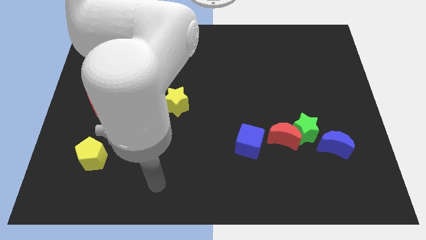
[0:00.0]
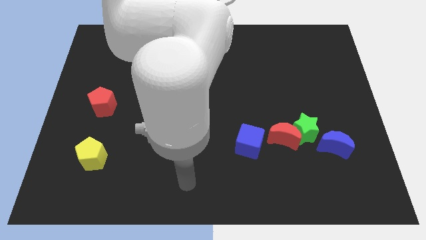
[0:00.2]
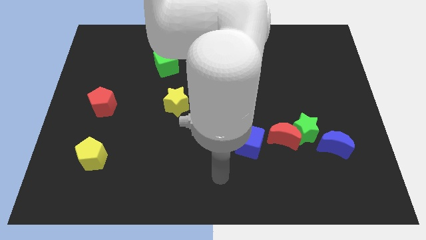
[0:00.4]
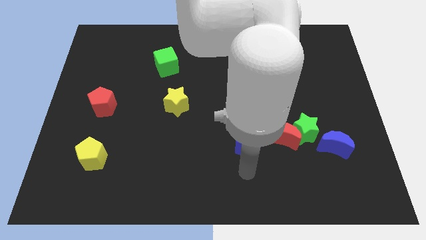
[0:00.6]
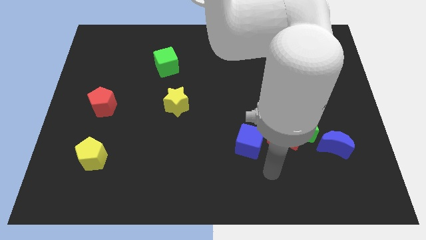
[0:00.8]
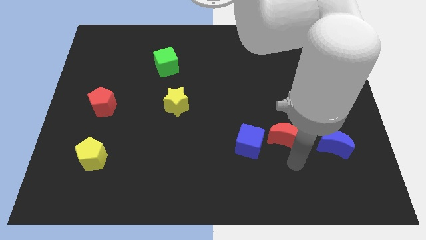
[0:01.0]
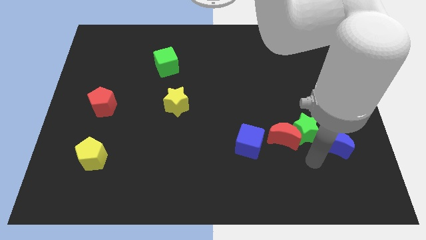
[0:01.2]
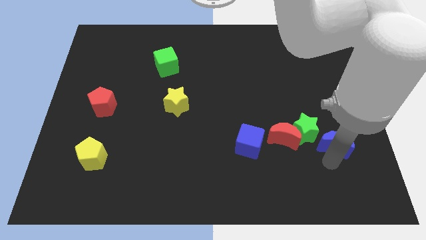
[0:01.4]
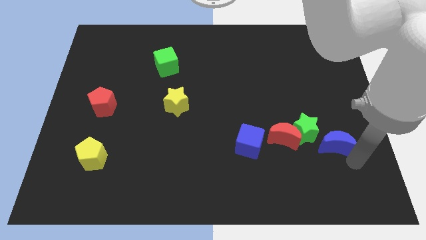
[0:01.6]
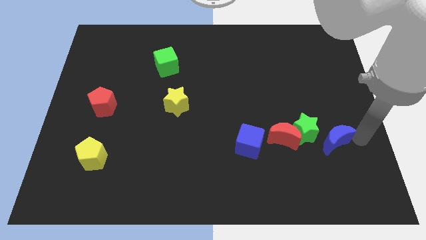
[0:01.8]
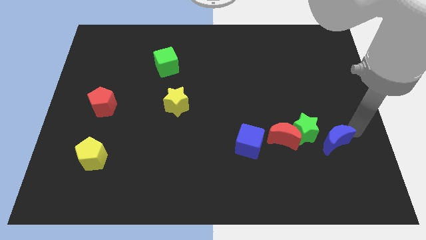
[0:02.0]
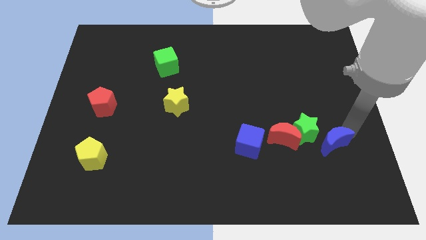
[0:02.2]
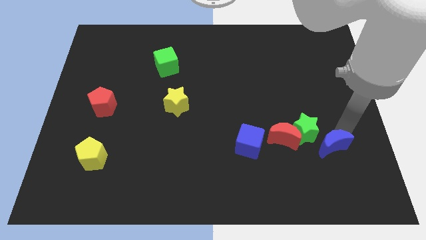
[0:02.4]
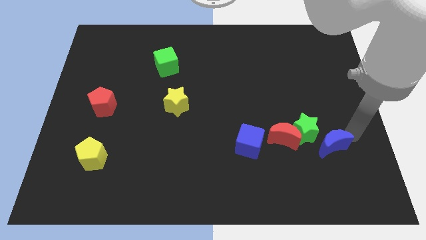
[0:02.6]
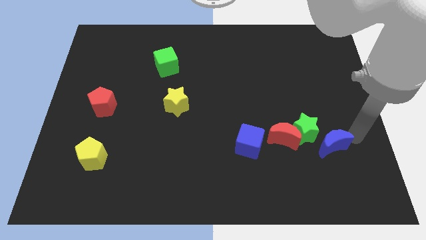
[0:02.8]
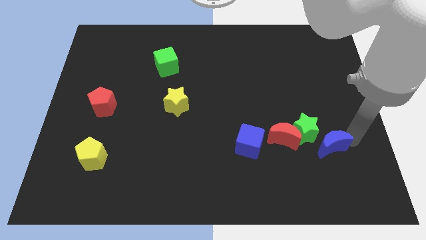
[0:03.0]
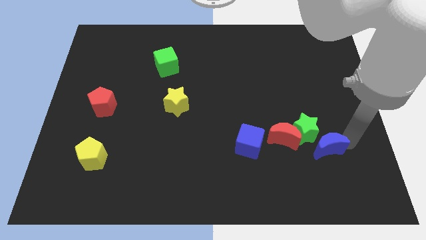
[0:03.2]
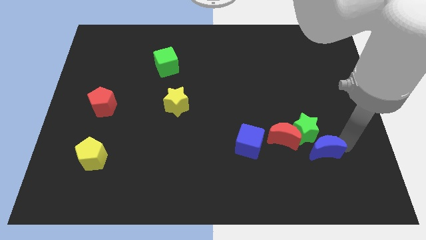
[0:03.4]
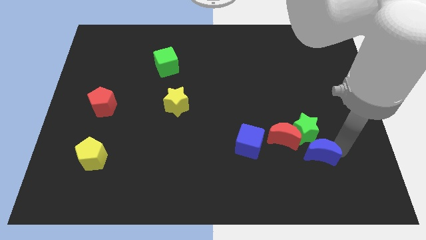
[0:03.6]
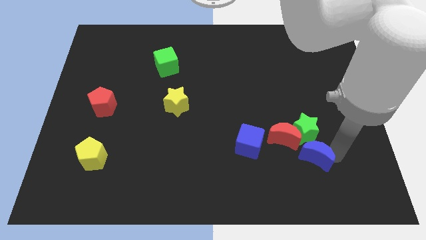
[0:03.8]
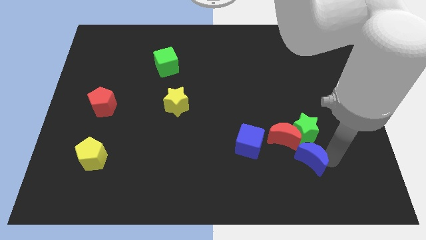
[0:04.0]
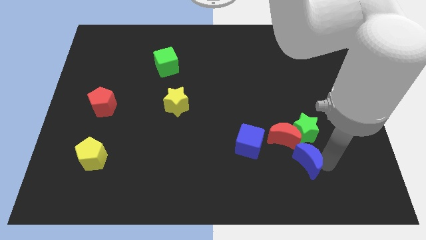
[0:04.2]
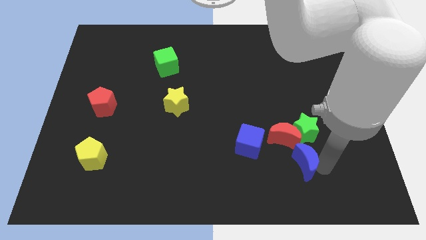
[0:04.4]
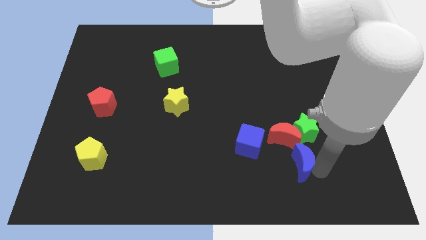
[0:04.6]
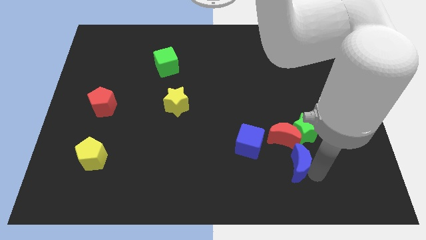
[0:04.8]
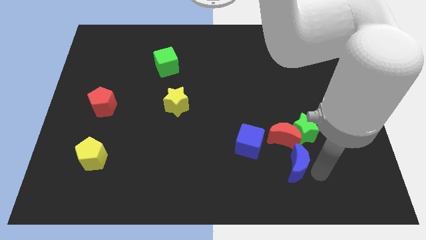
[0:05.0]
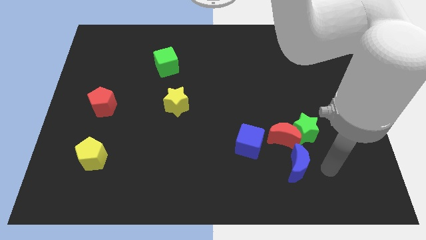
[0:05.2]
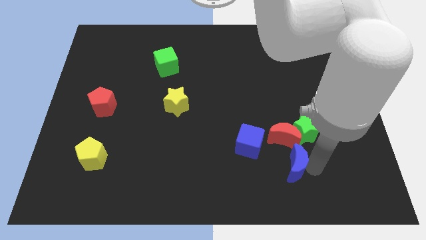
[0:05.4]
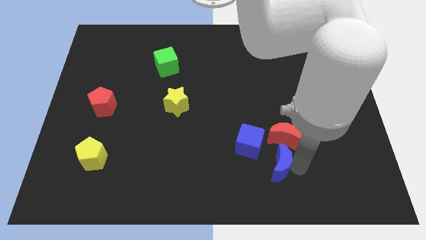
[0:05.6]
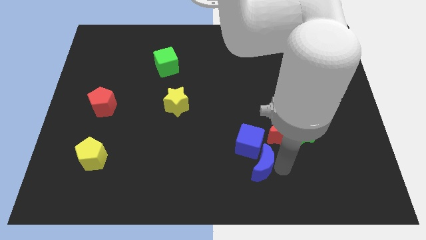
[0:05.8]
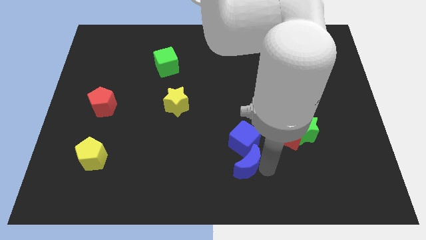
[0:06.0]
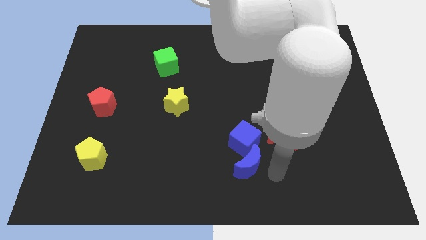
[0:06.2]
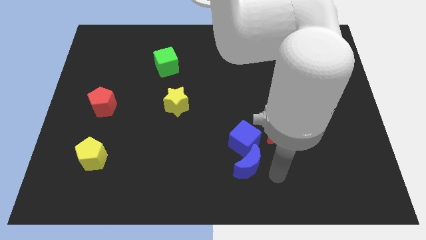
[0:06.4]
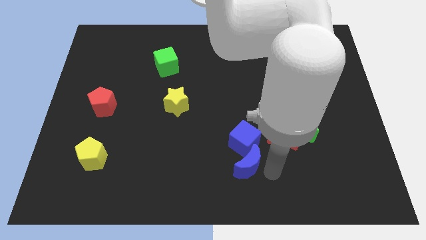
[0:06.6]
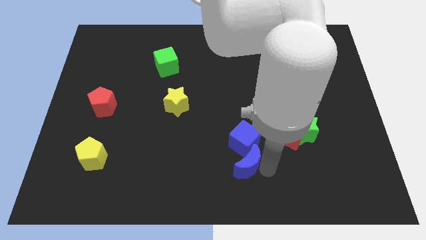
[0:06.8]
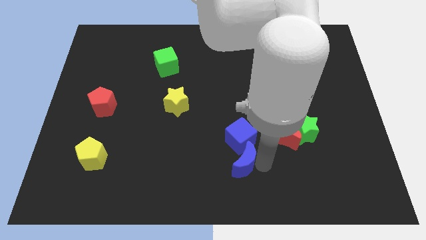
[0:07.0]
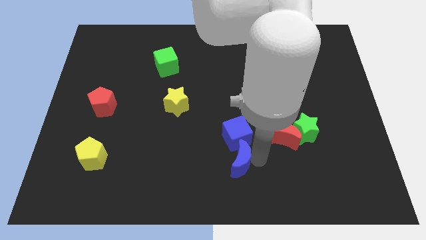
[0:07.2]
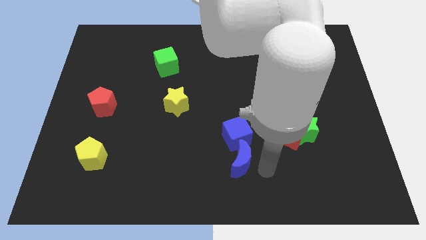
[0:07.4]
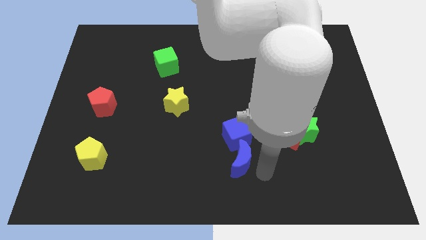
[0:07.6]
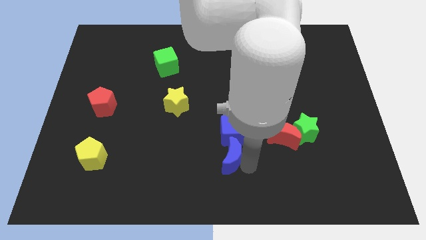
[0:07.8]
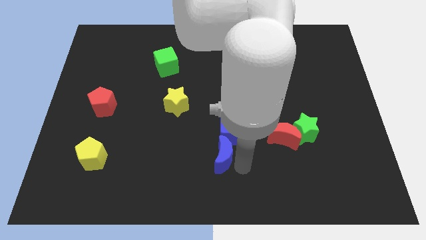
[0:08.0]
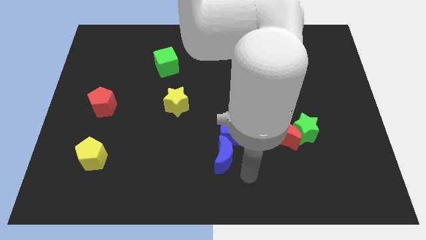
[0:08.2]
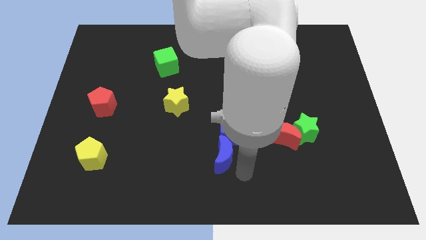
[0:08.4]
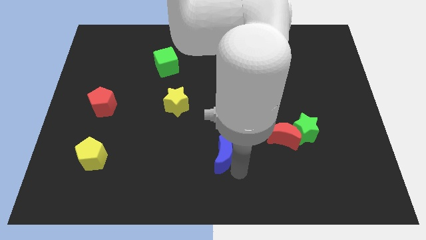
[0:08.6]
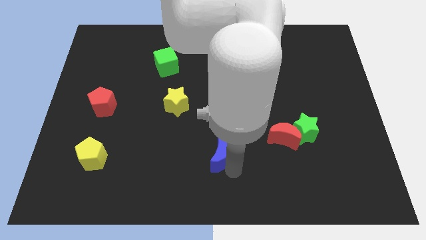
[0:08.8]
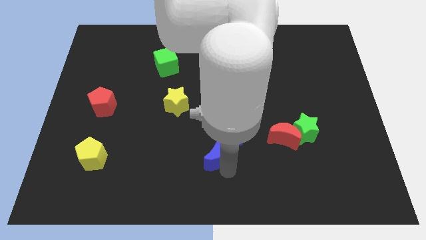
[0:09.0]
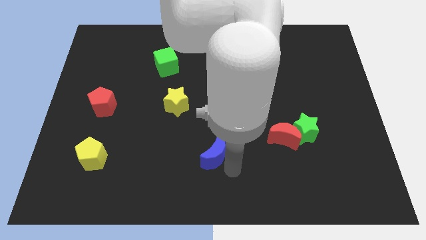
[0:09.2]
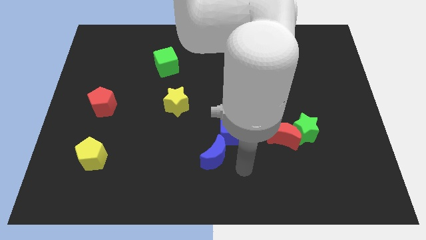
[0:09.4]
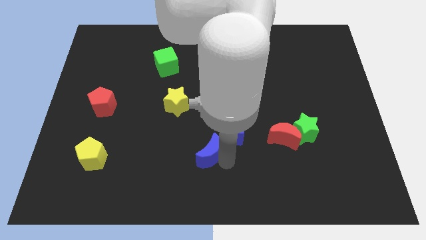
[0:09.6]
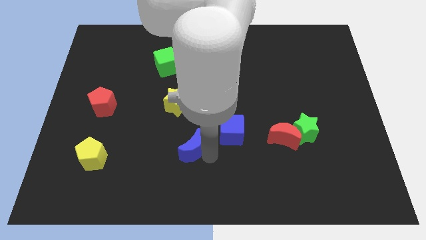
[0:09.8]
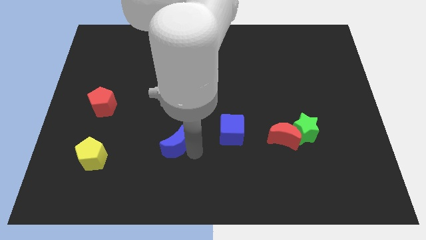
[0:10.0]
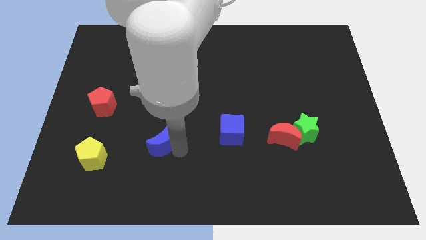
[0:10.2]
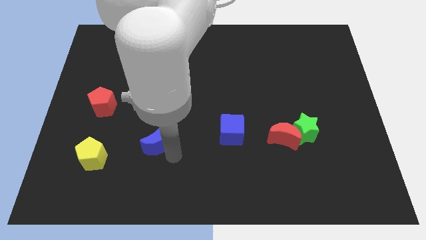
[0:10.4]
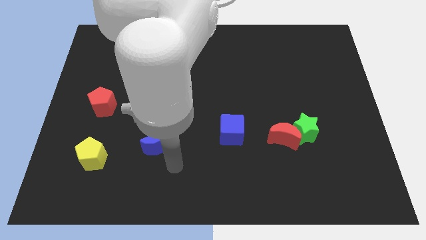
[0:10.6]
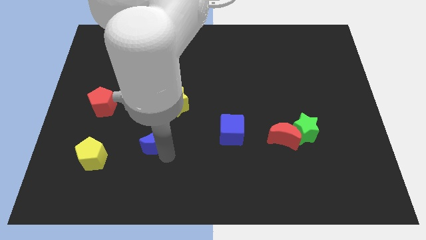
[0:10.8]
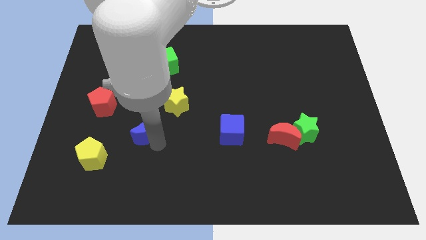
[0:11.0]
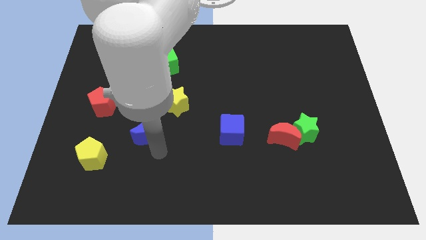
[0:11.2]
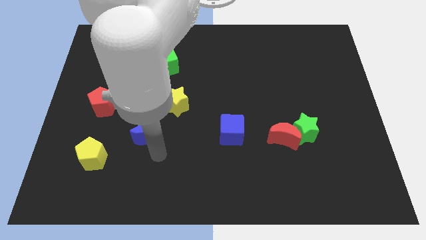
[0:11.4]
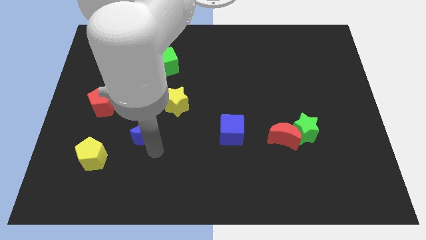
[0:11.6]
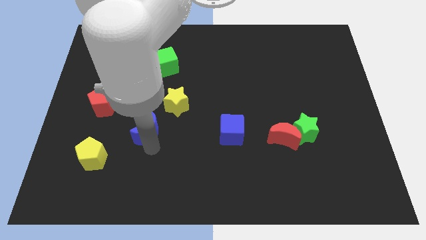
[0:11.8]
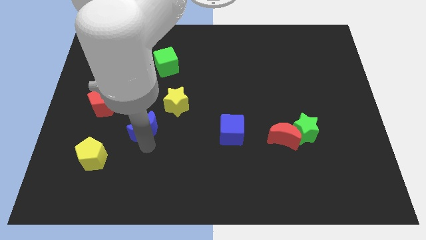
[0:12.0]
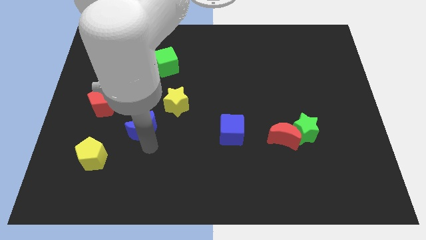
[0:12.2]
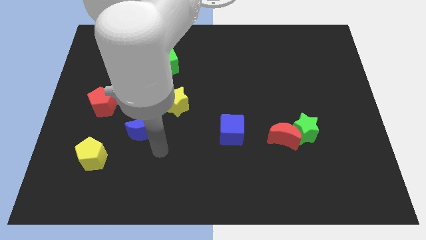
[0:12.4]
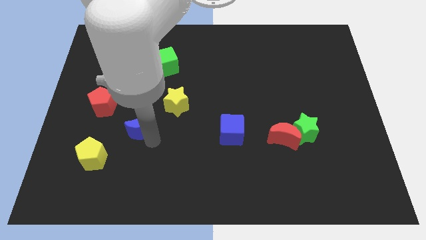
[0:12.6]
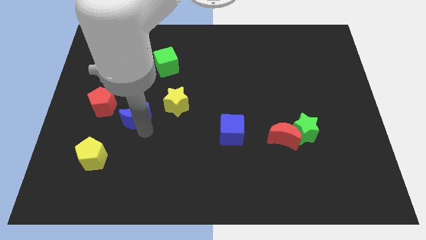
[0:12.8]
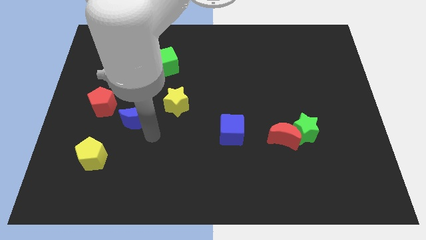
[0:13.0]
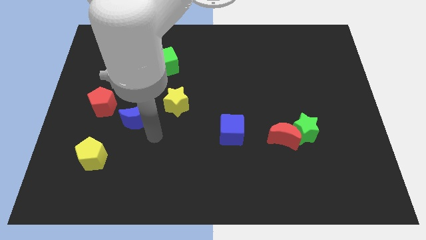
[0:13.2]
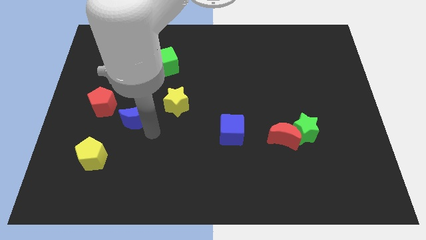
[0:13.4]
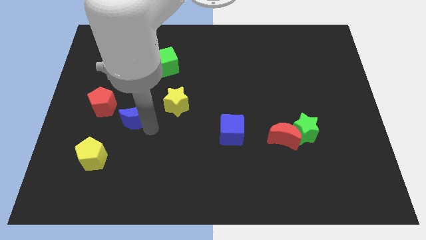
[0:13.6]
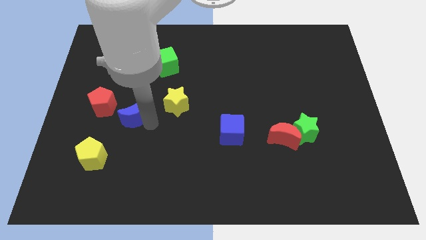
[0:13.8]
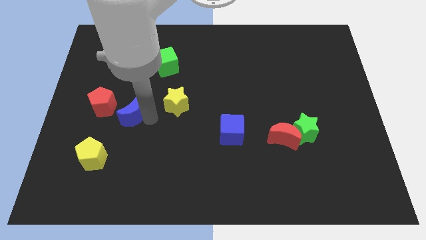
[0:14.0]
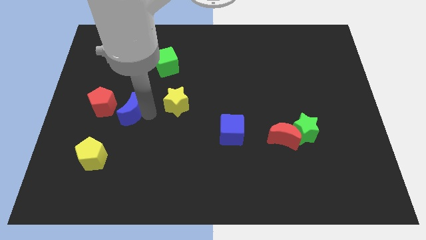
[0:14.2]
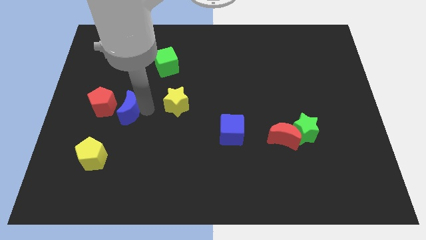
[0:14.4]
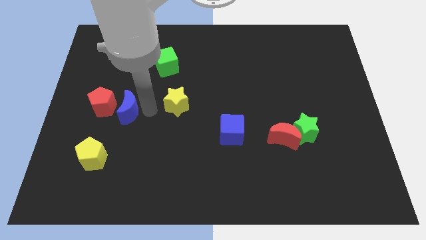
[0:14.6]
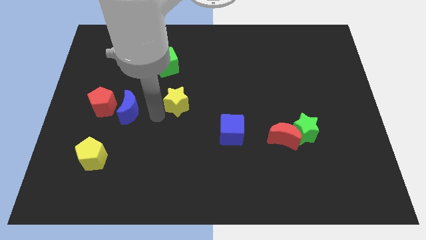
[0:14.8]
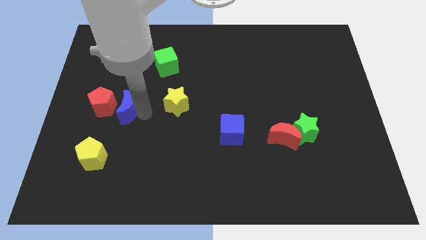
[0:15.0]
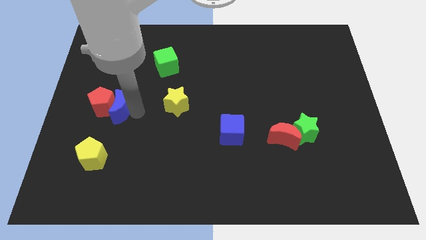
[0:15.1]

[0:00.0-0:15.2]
slide the blue moon next to the red pentagon
